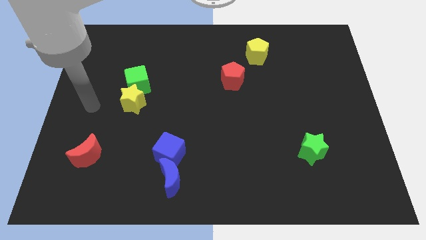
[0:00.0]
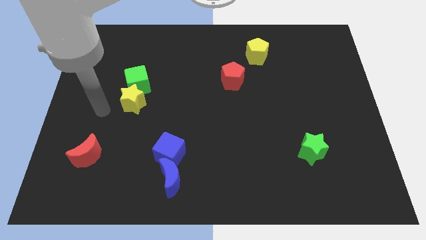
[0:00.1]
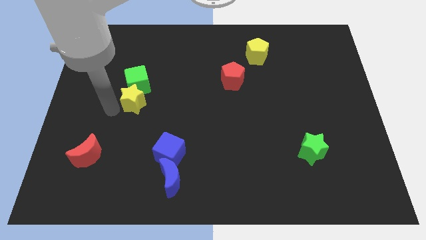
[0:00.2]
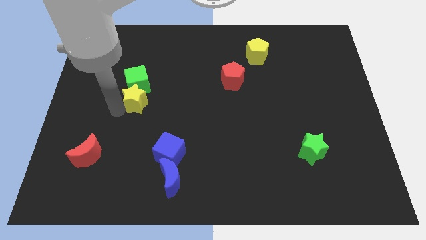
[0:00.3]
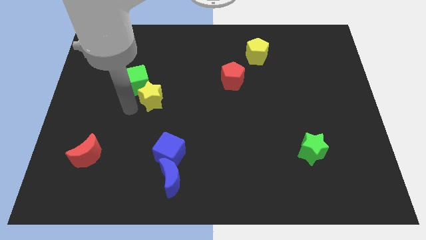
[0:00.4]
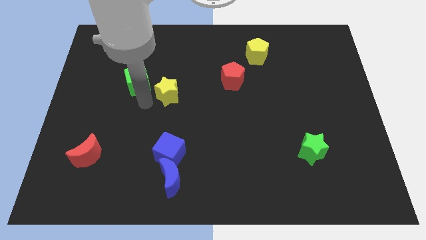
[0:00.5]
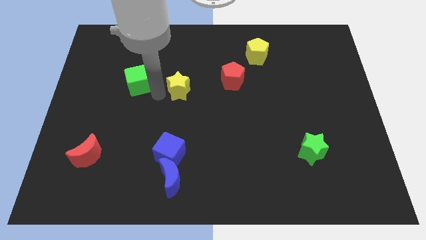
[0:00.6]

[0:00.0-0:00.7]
pull the green cube apart from the yellow star

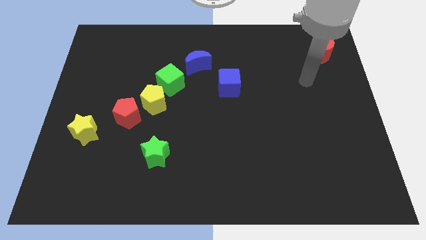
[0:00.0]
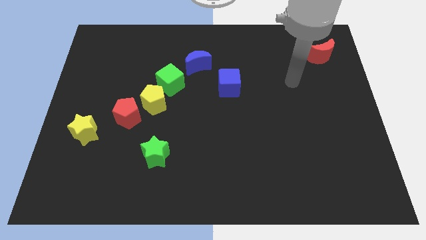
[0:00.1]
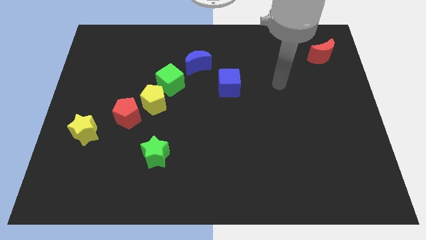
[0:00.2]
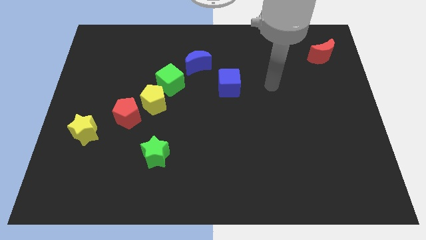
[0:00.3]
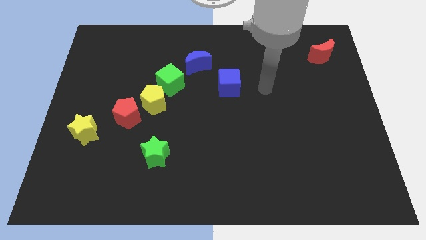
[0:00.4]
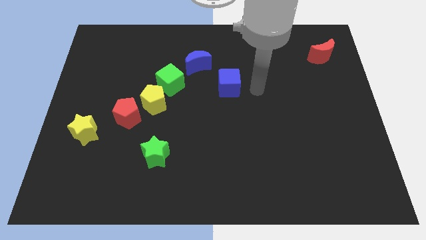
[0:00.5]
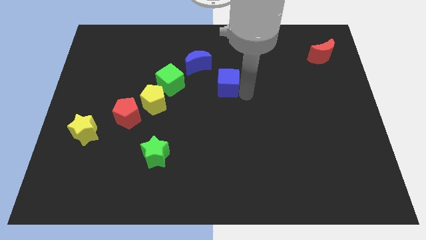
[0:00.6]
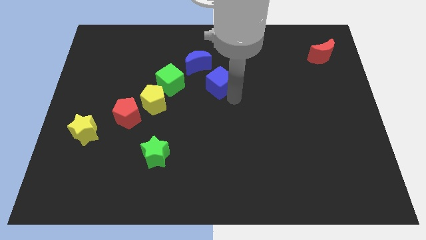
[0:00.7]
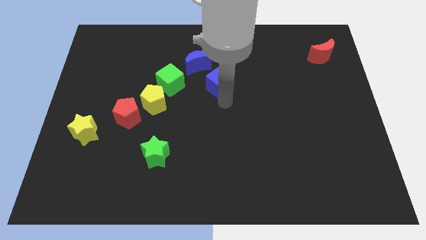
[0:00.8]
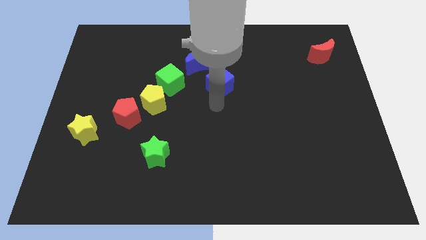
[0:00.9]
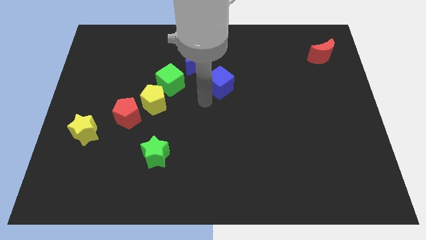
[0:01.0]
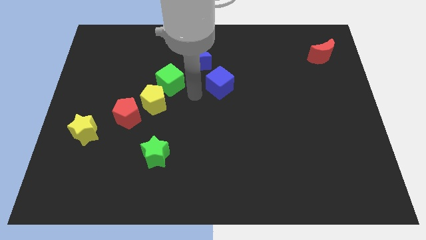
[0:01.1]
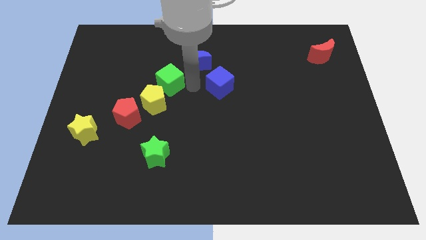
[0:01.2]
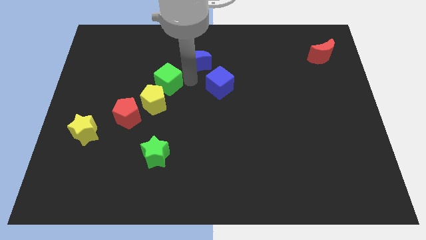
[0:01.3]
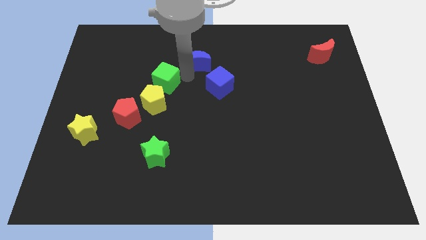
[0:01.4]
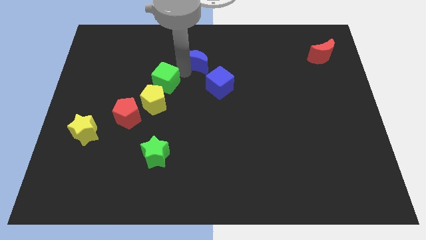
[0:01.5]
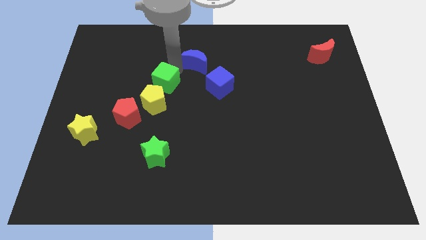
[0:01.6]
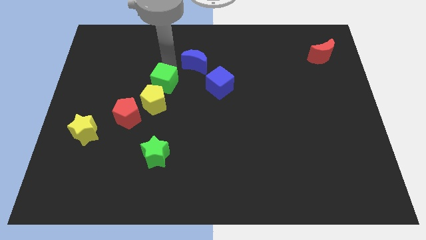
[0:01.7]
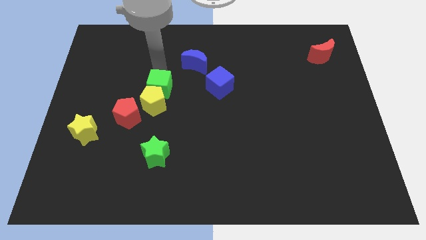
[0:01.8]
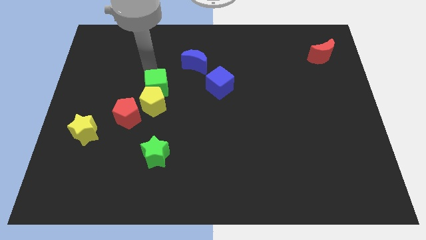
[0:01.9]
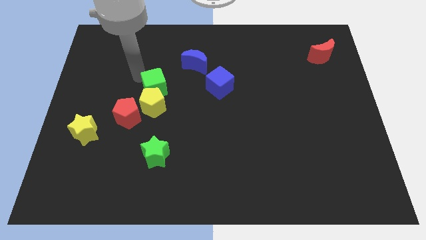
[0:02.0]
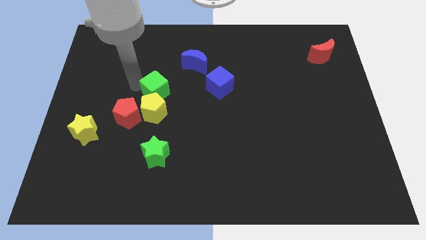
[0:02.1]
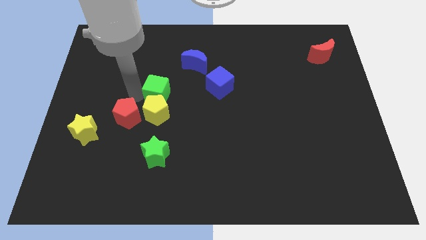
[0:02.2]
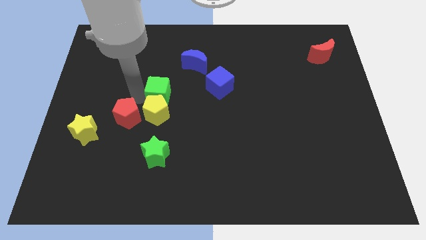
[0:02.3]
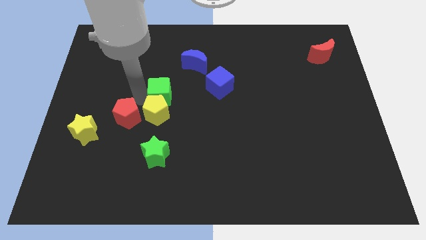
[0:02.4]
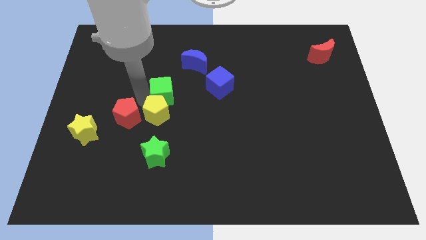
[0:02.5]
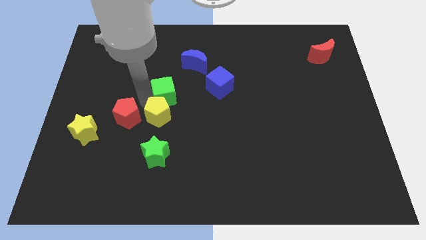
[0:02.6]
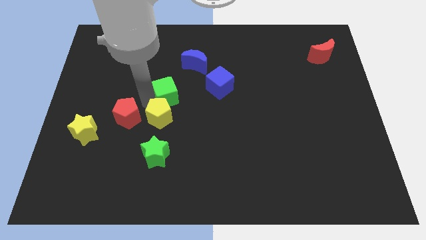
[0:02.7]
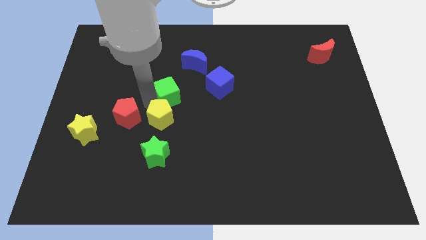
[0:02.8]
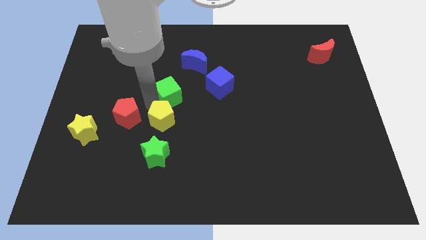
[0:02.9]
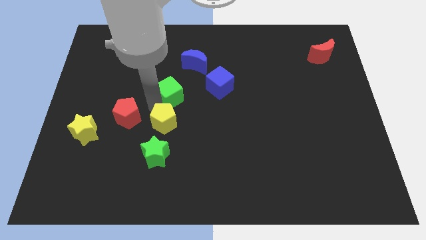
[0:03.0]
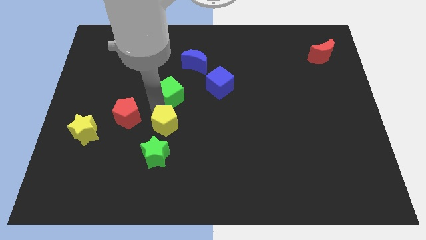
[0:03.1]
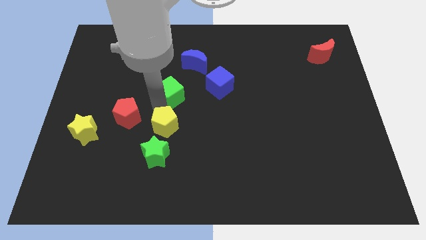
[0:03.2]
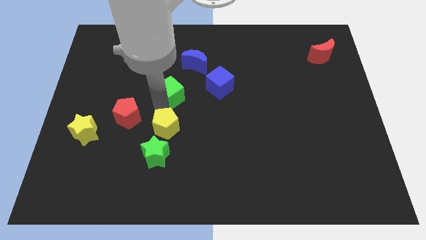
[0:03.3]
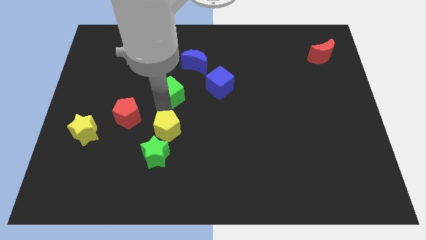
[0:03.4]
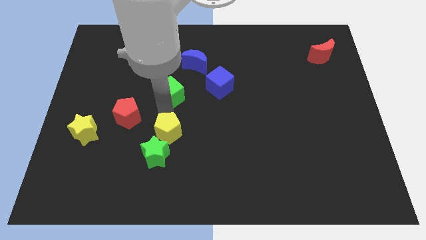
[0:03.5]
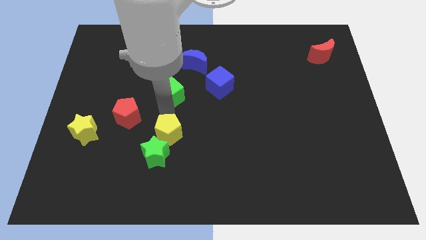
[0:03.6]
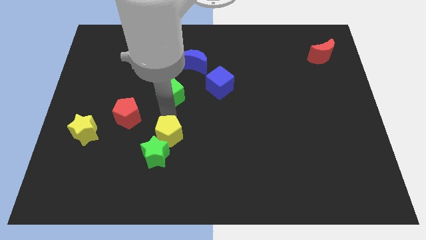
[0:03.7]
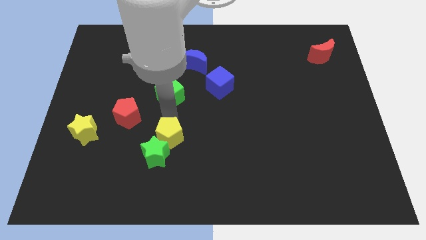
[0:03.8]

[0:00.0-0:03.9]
pull the yellow pentagon apart from the red pentagon and green cube

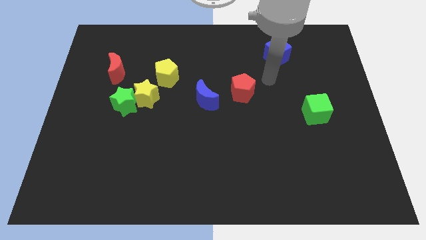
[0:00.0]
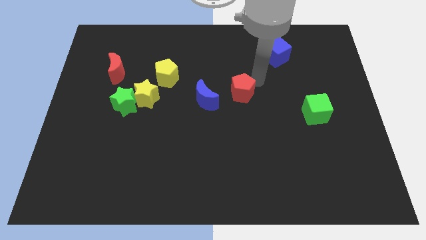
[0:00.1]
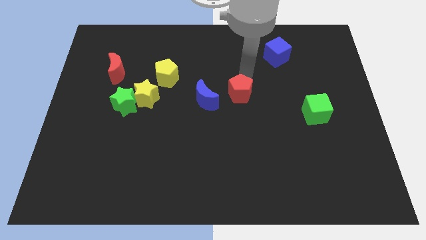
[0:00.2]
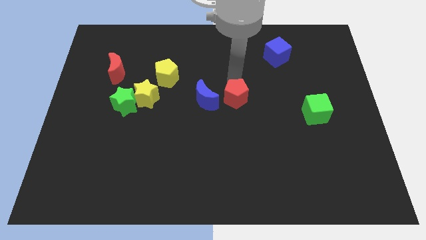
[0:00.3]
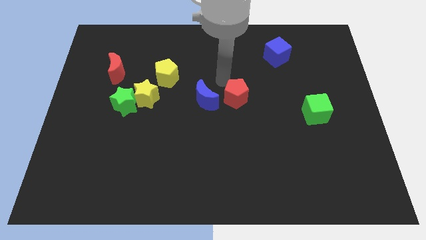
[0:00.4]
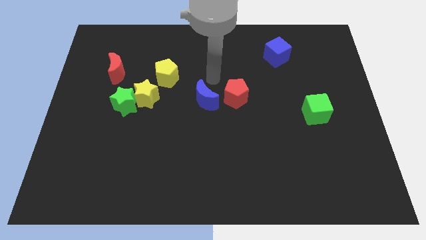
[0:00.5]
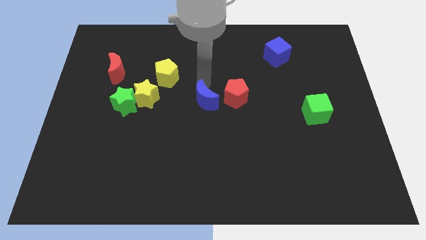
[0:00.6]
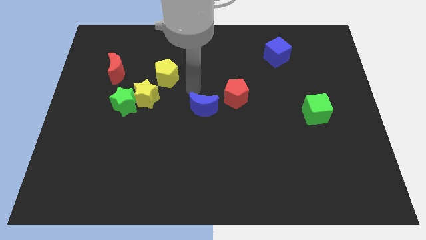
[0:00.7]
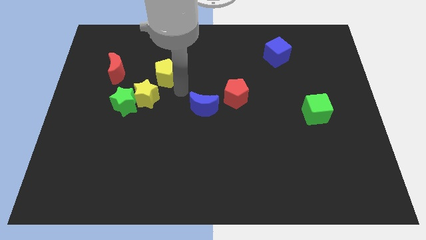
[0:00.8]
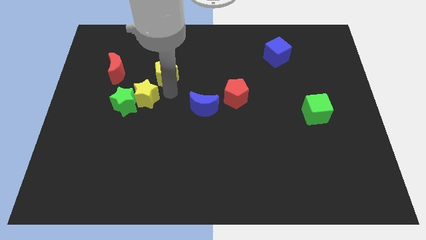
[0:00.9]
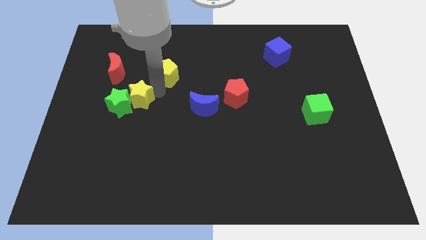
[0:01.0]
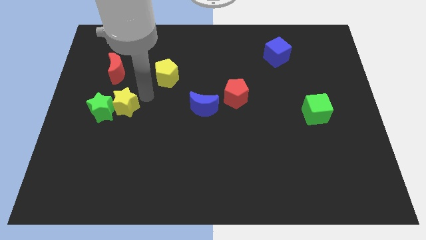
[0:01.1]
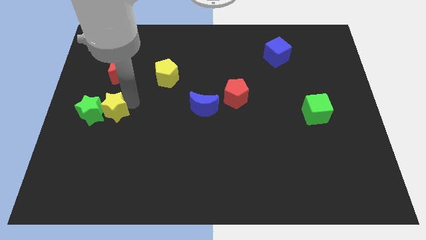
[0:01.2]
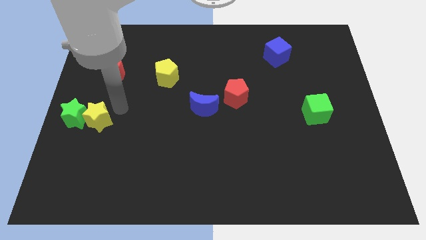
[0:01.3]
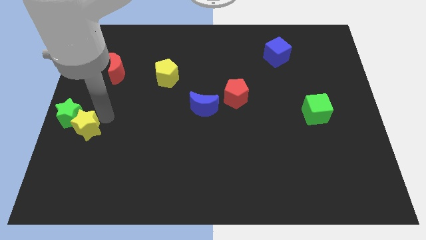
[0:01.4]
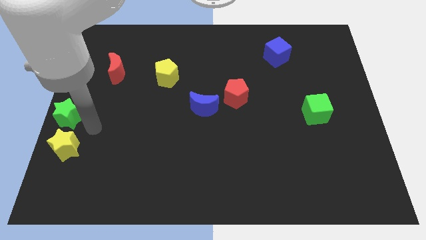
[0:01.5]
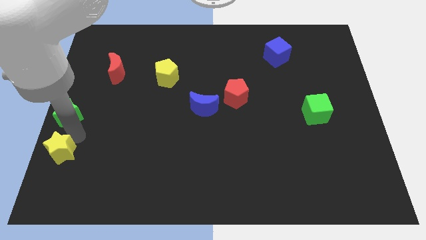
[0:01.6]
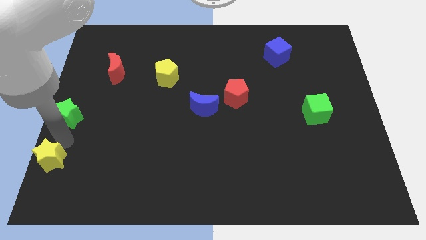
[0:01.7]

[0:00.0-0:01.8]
pull the green star apart from the yellow star

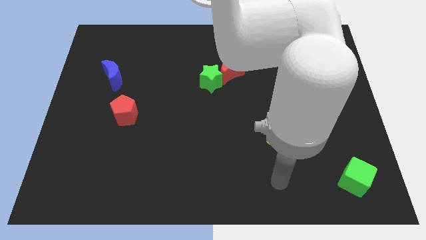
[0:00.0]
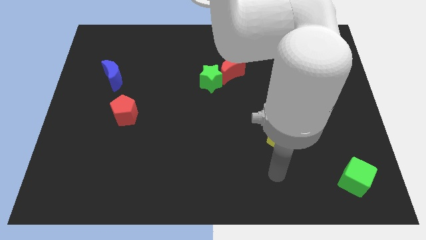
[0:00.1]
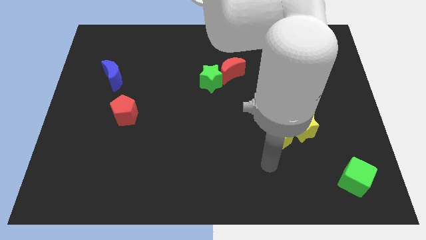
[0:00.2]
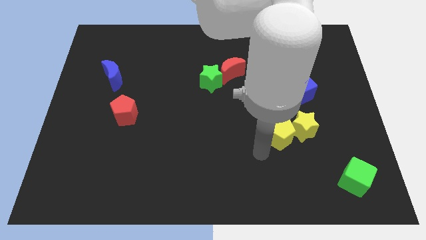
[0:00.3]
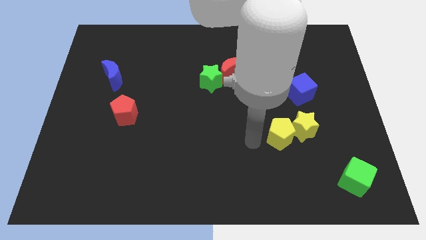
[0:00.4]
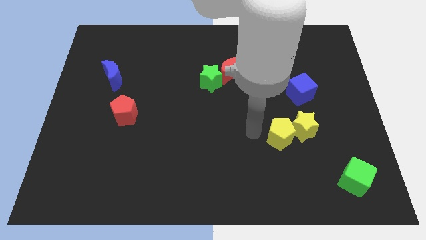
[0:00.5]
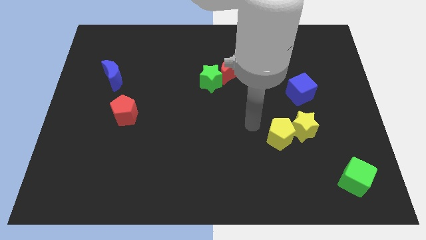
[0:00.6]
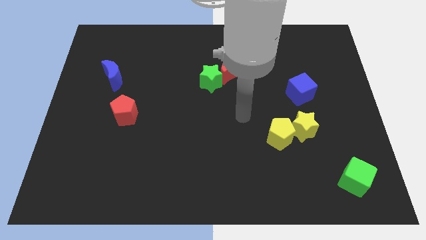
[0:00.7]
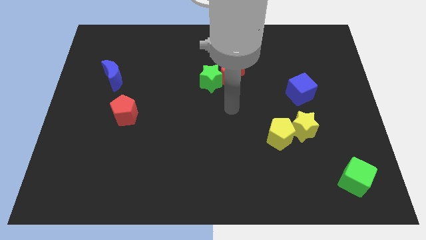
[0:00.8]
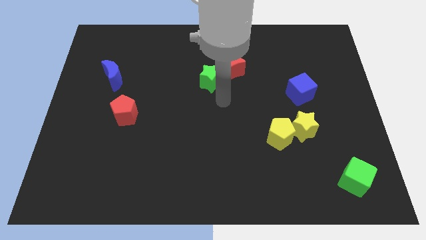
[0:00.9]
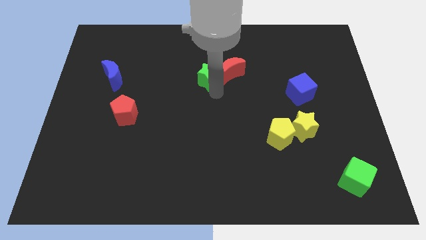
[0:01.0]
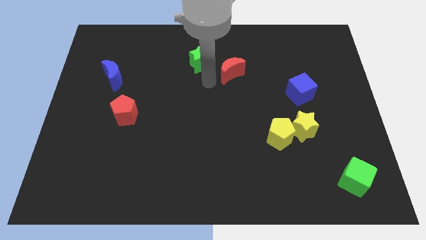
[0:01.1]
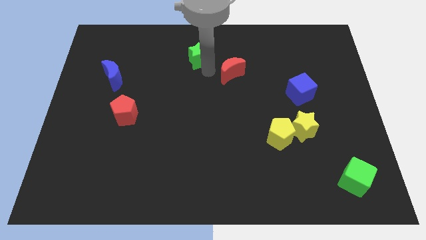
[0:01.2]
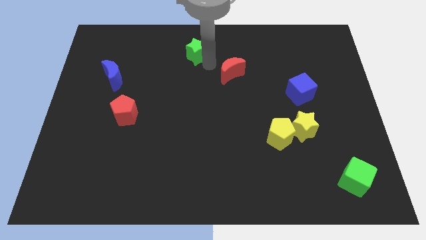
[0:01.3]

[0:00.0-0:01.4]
pull the red moon apart from the green star

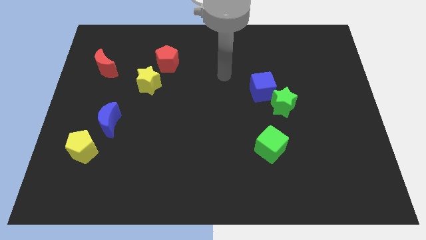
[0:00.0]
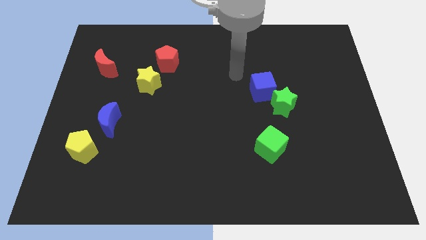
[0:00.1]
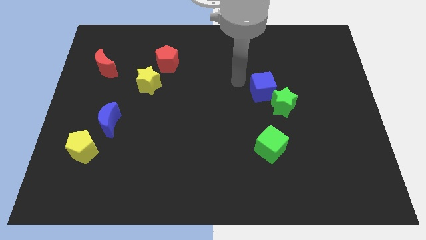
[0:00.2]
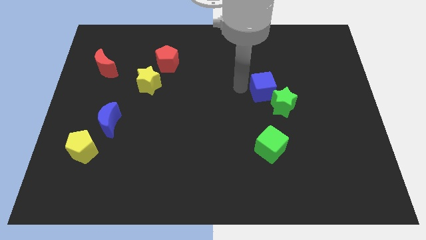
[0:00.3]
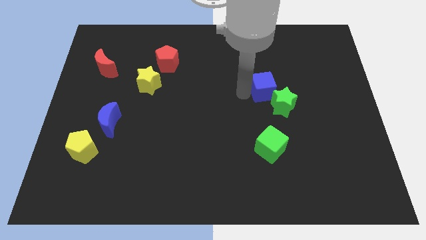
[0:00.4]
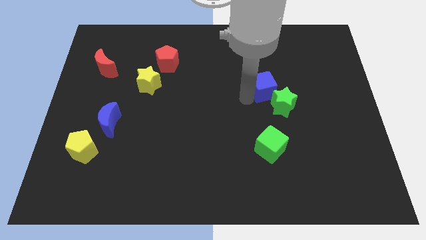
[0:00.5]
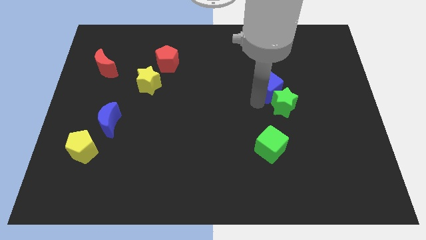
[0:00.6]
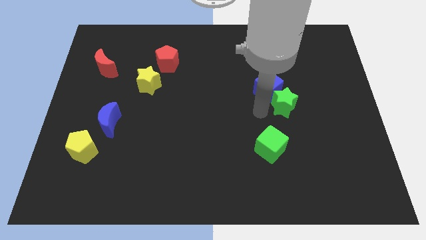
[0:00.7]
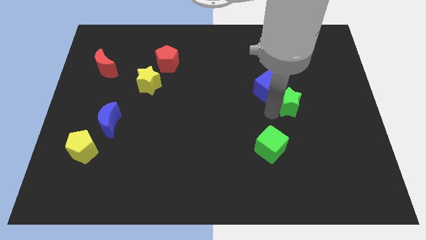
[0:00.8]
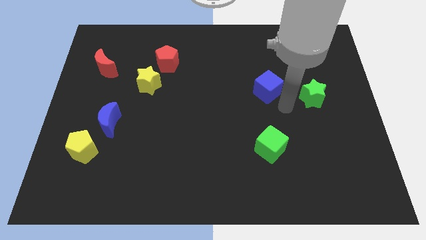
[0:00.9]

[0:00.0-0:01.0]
separate the blue cube from the green star

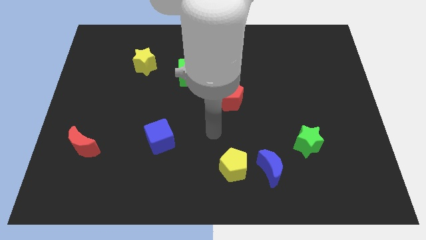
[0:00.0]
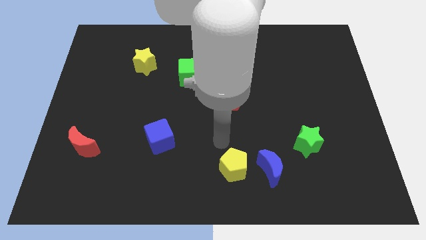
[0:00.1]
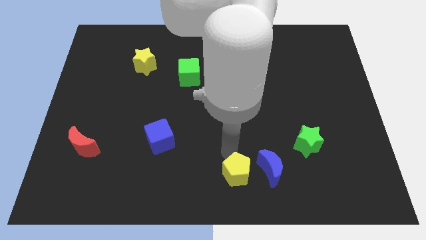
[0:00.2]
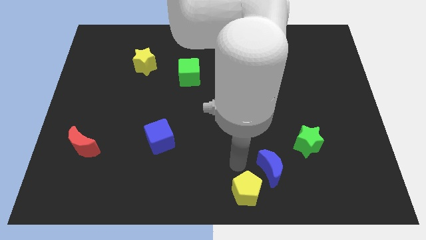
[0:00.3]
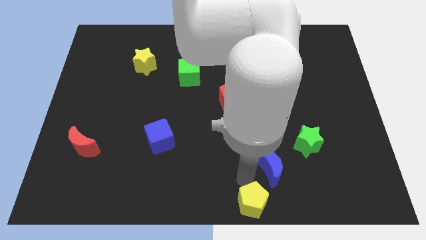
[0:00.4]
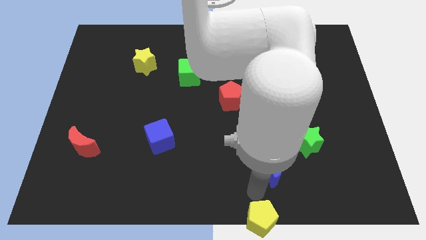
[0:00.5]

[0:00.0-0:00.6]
move the blue moon away from the yellow pentagon

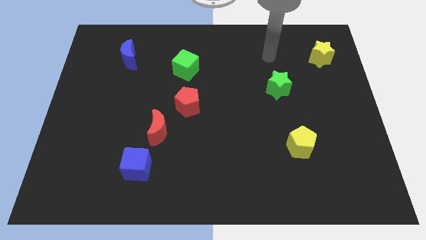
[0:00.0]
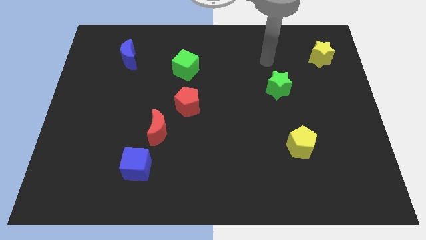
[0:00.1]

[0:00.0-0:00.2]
pull the red pentagon apart from the red moon
